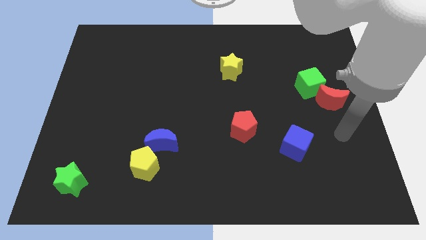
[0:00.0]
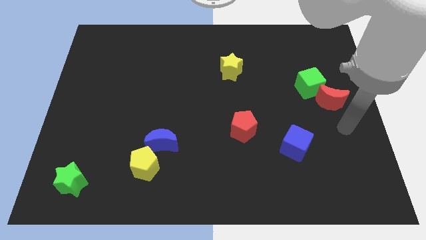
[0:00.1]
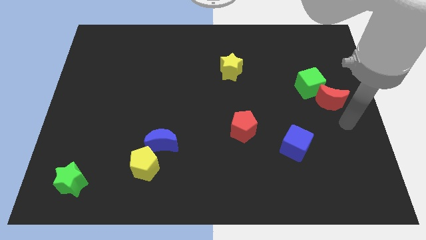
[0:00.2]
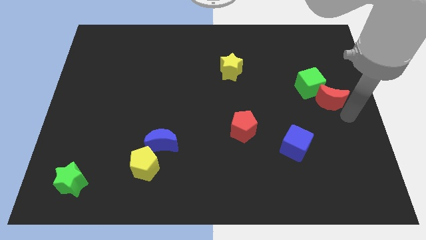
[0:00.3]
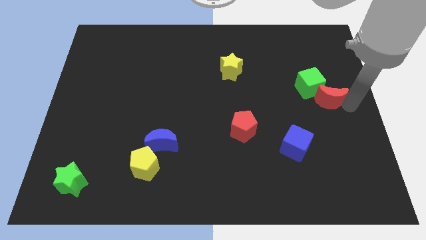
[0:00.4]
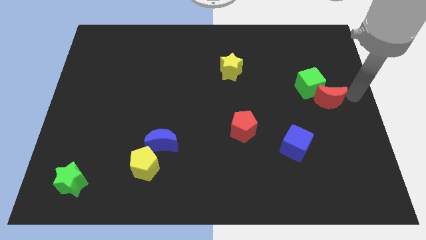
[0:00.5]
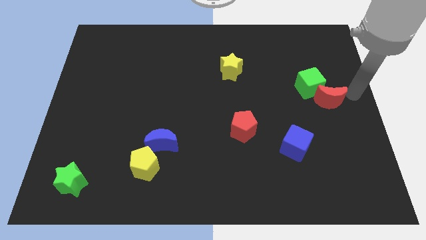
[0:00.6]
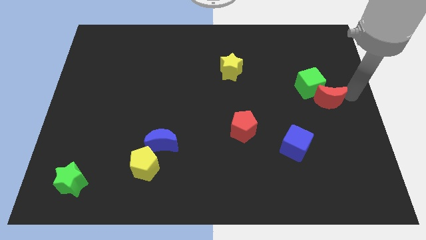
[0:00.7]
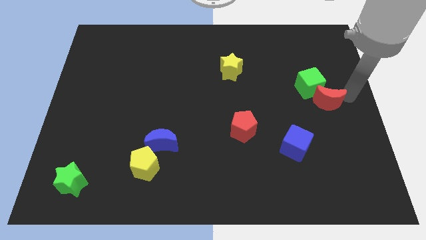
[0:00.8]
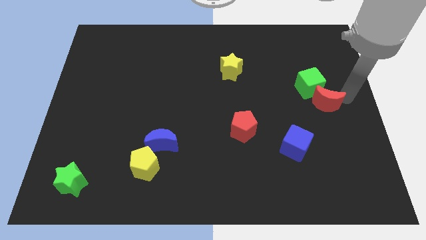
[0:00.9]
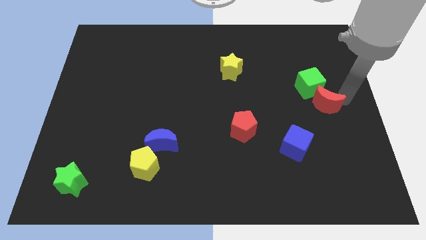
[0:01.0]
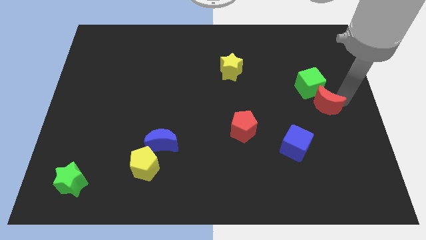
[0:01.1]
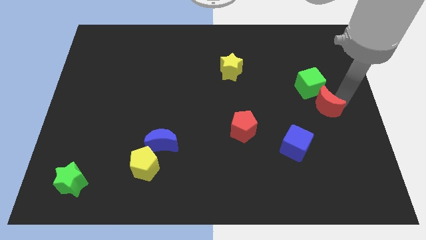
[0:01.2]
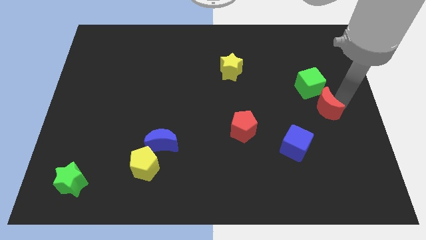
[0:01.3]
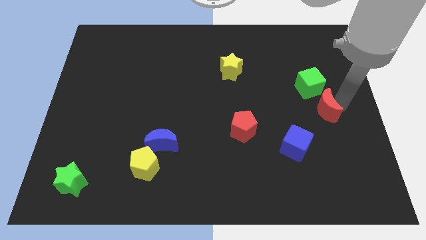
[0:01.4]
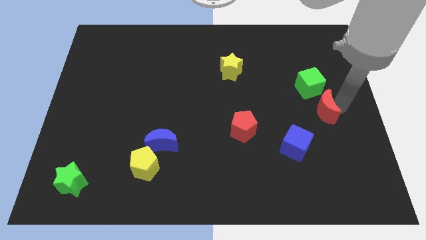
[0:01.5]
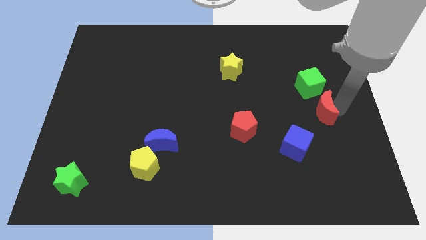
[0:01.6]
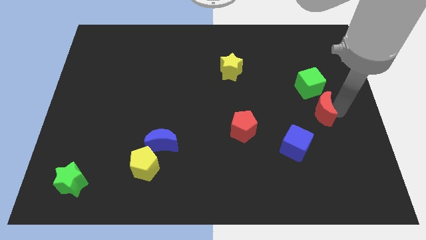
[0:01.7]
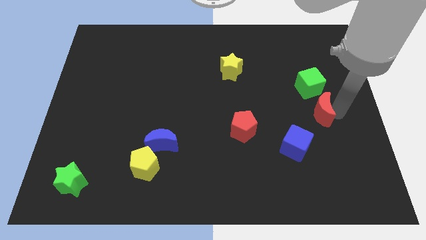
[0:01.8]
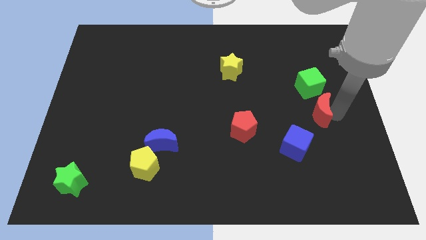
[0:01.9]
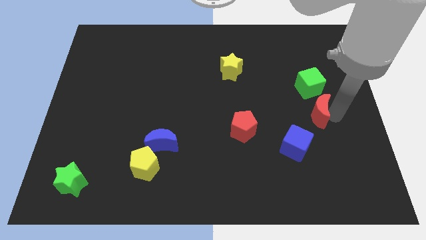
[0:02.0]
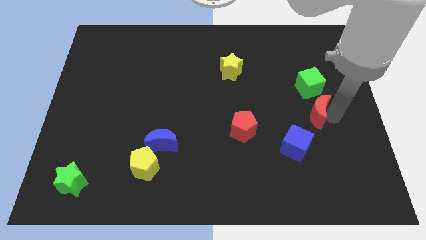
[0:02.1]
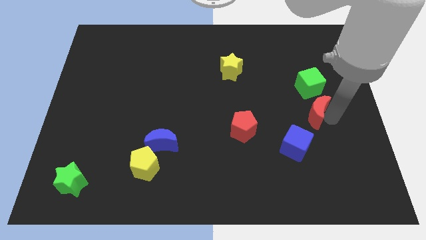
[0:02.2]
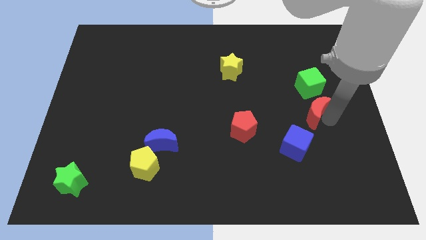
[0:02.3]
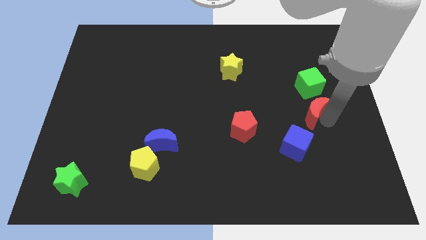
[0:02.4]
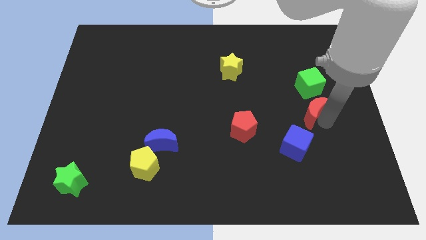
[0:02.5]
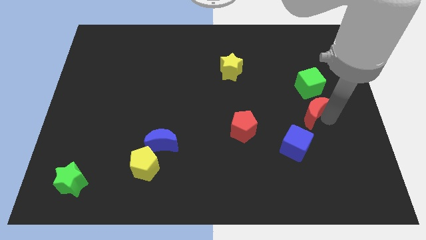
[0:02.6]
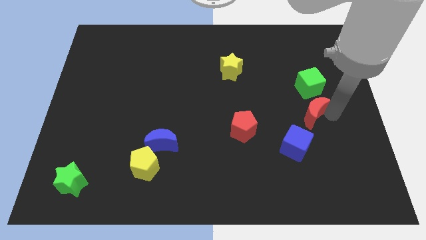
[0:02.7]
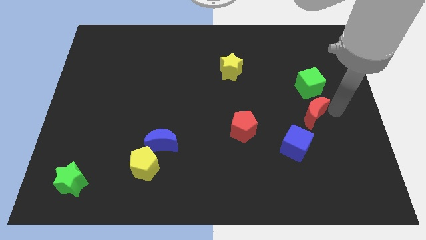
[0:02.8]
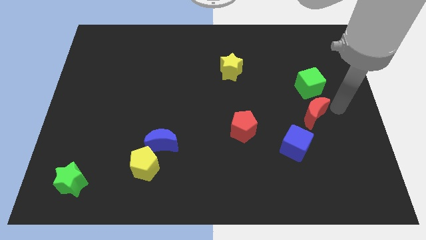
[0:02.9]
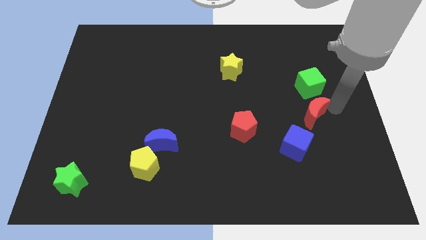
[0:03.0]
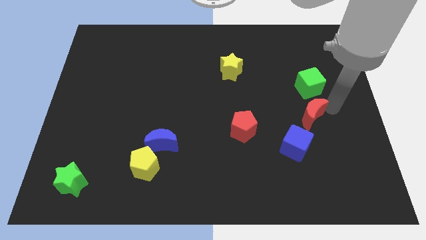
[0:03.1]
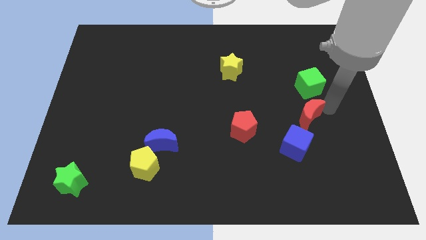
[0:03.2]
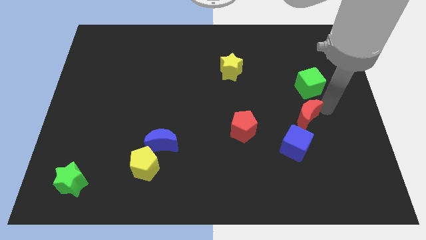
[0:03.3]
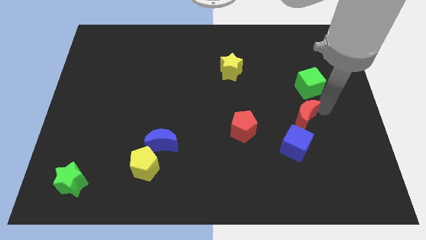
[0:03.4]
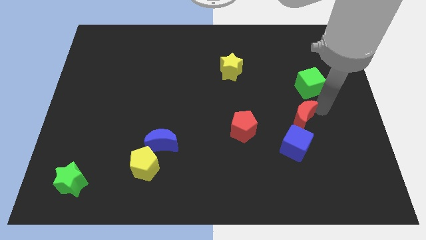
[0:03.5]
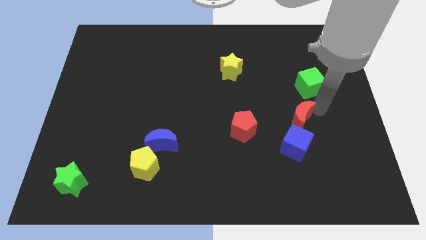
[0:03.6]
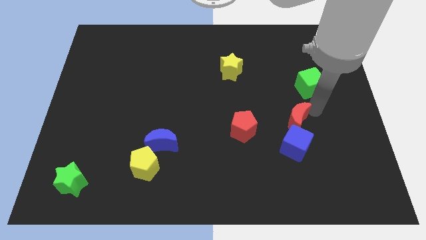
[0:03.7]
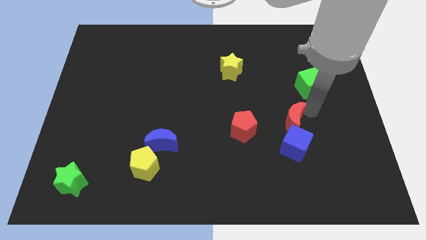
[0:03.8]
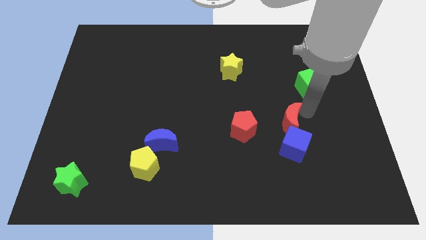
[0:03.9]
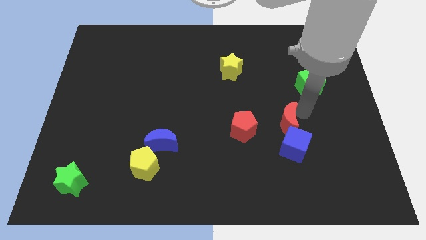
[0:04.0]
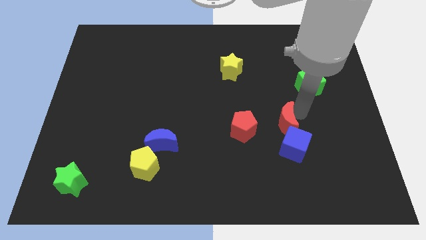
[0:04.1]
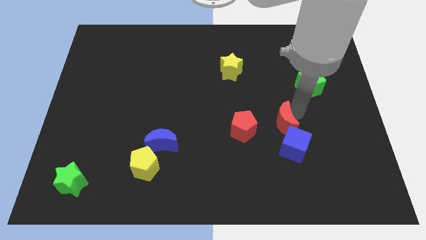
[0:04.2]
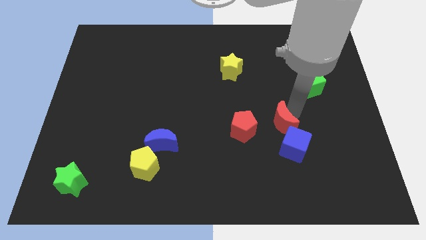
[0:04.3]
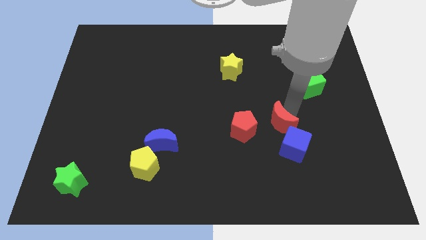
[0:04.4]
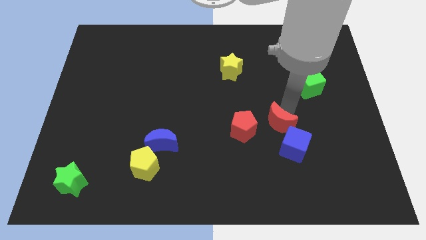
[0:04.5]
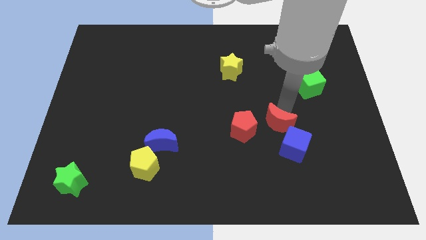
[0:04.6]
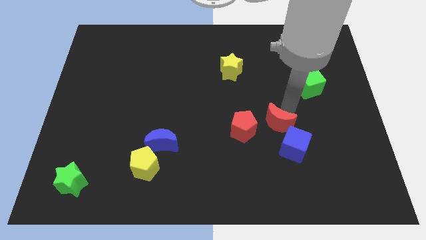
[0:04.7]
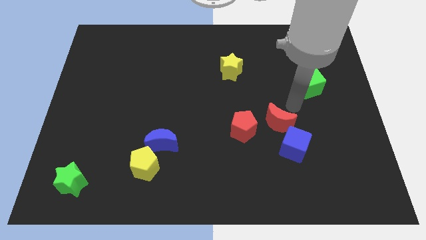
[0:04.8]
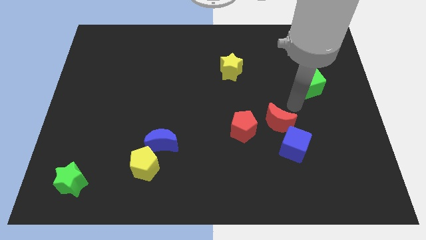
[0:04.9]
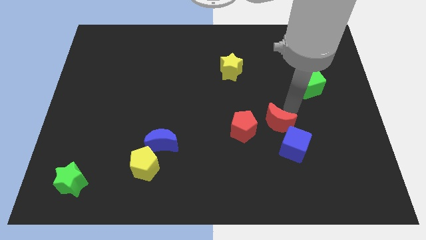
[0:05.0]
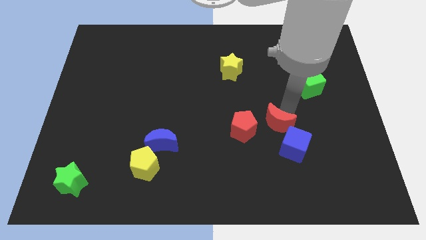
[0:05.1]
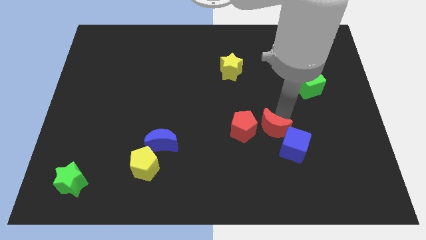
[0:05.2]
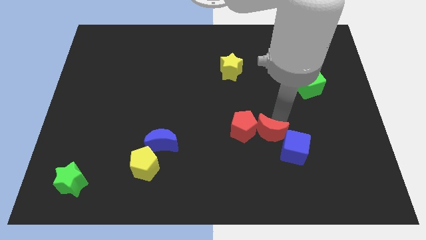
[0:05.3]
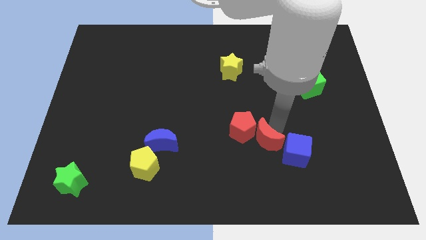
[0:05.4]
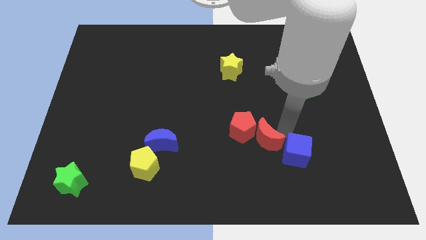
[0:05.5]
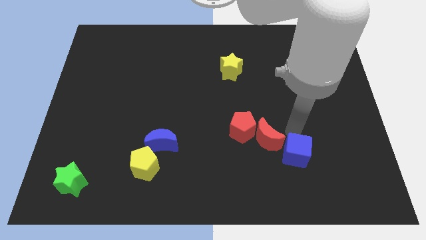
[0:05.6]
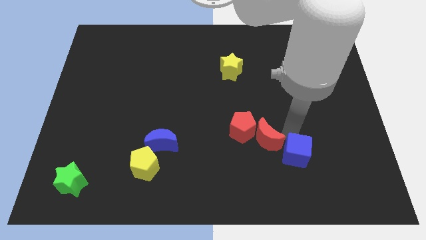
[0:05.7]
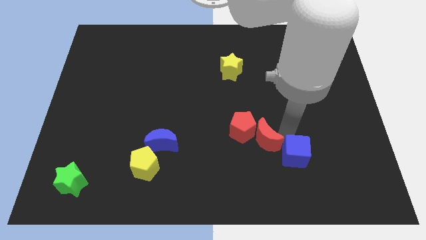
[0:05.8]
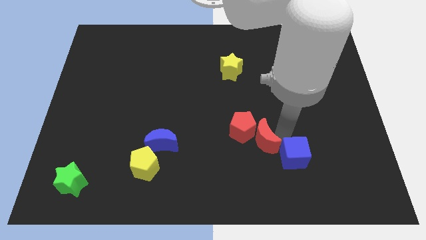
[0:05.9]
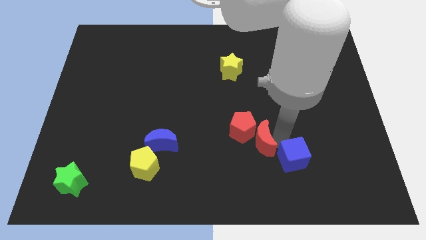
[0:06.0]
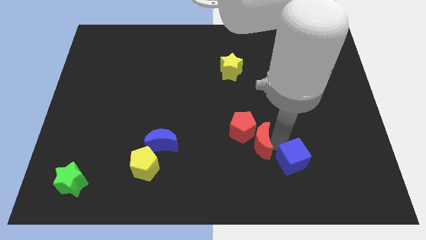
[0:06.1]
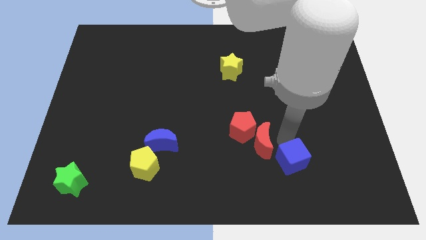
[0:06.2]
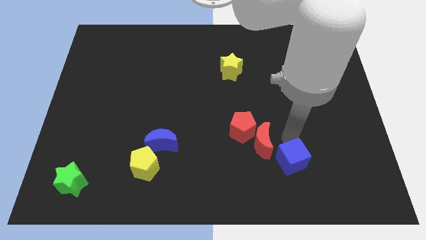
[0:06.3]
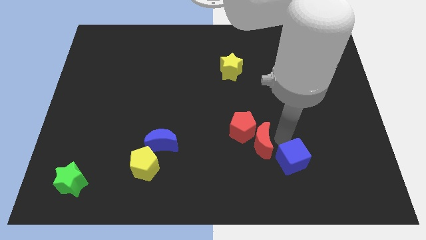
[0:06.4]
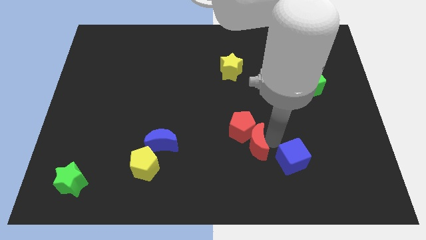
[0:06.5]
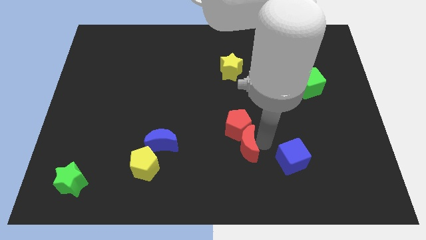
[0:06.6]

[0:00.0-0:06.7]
push the red moon to the bottom left side of the red pentagon

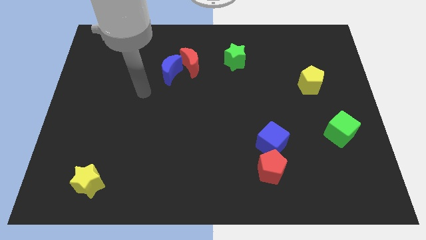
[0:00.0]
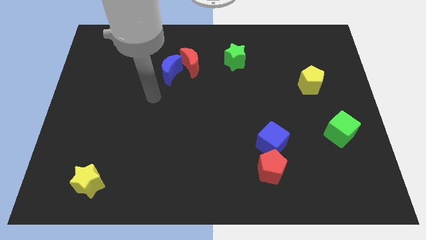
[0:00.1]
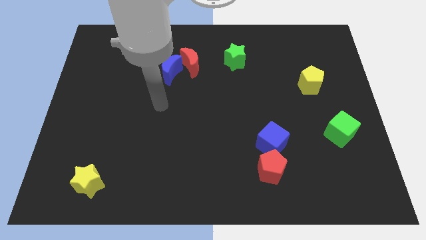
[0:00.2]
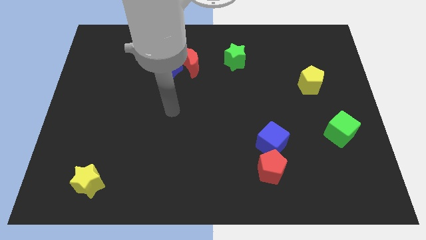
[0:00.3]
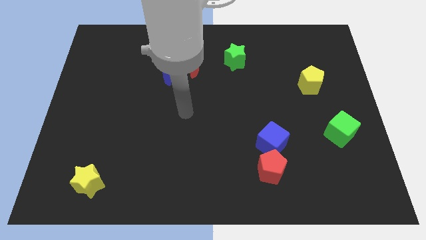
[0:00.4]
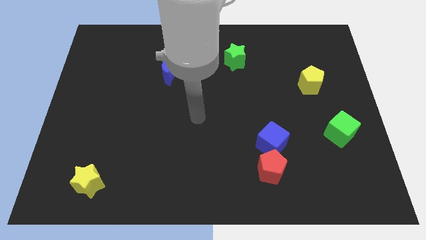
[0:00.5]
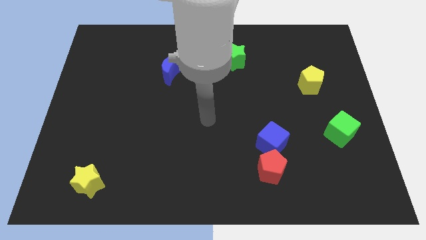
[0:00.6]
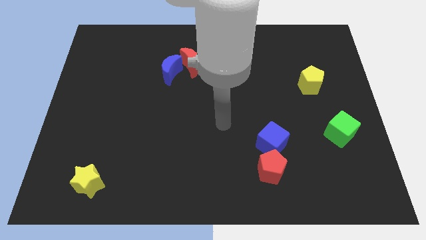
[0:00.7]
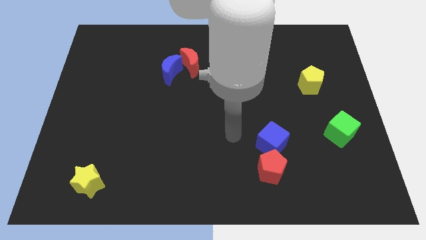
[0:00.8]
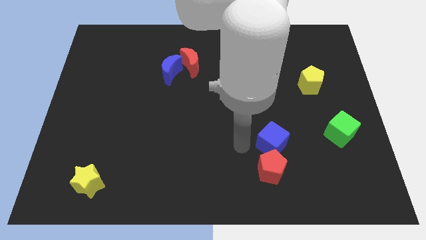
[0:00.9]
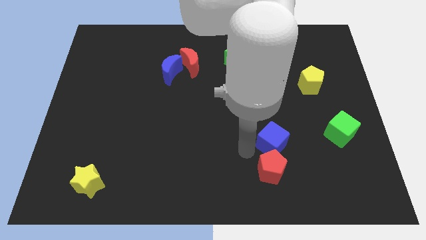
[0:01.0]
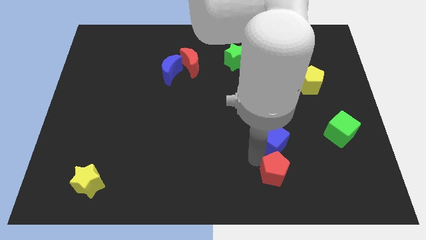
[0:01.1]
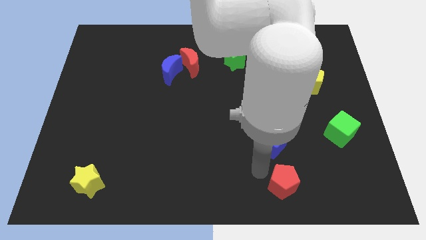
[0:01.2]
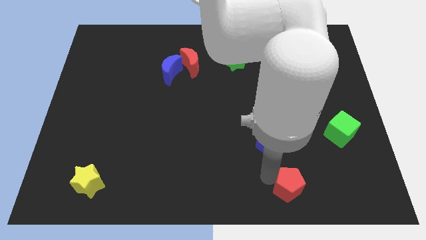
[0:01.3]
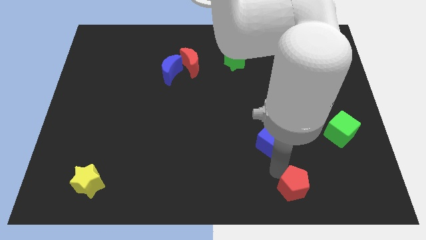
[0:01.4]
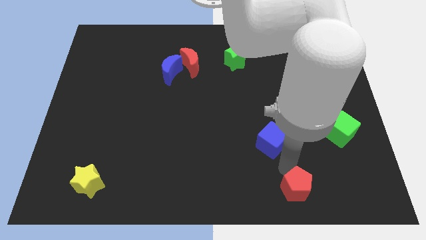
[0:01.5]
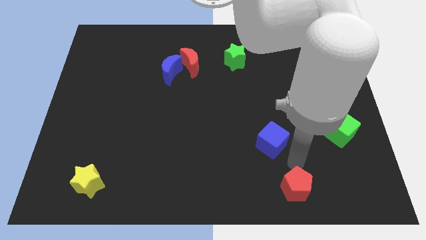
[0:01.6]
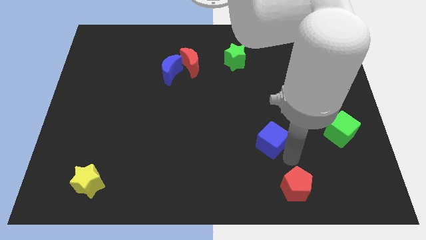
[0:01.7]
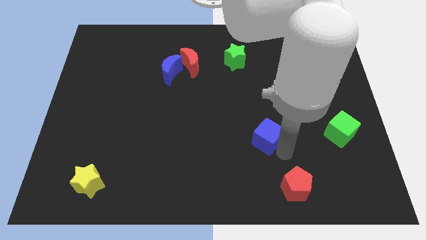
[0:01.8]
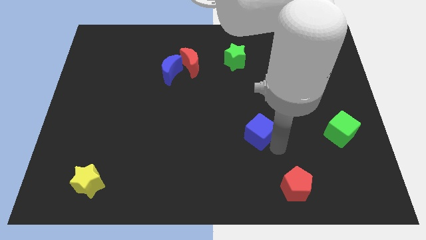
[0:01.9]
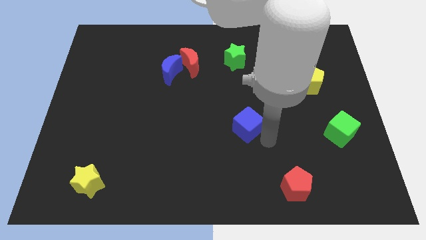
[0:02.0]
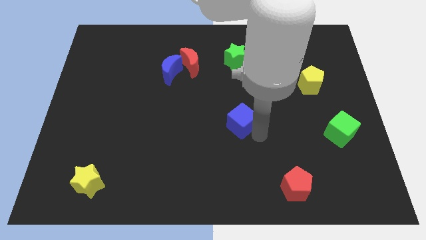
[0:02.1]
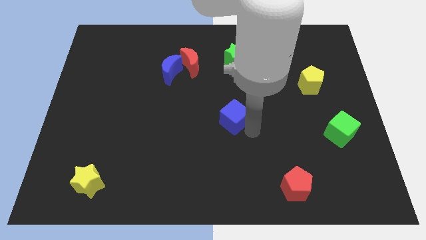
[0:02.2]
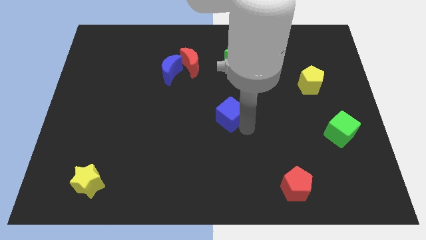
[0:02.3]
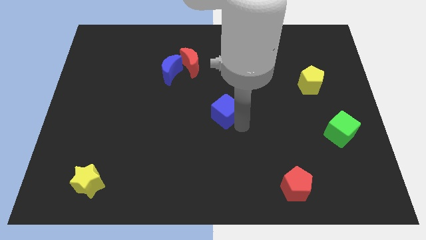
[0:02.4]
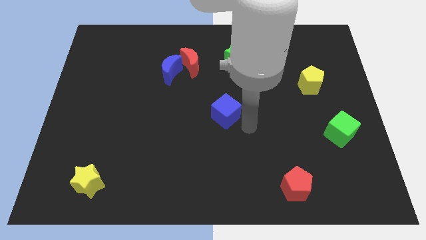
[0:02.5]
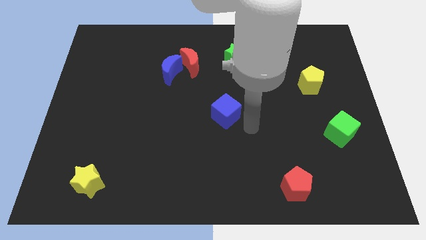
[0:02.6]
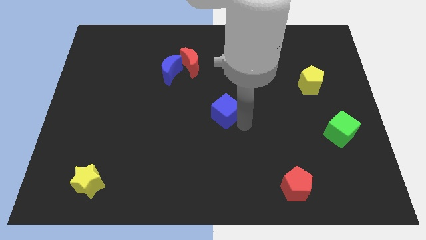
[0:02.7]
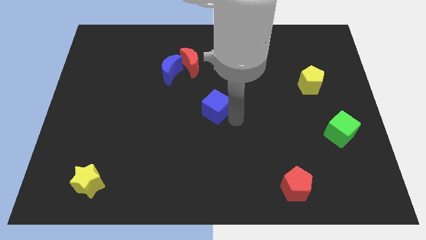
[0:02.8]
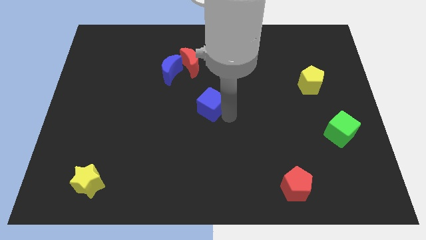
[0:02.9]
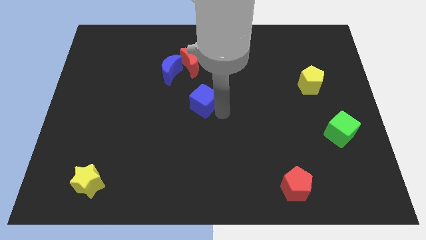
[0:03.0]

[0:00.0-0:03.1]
push the blue cube to the bottom of the red moon
